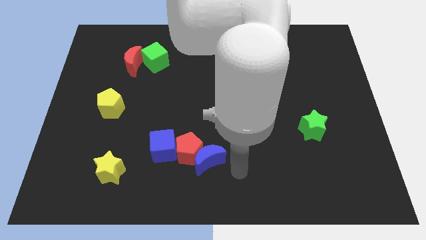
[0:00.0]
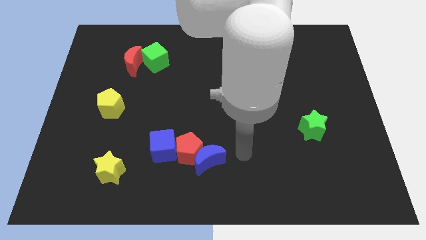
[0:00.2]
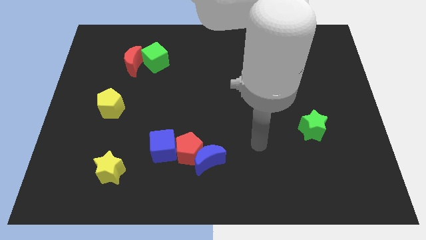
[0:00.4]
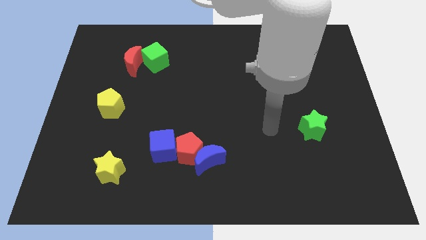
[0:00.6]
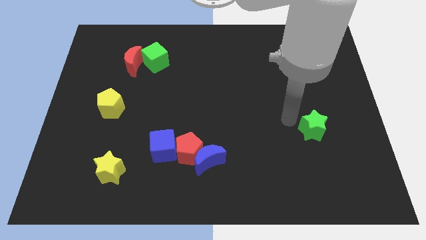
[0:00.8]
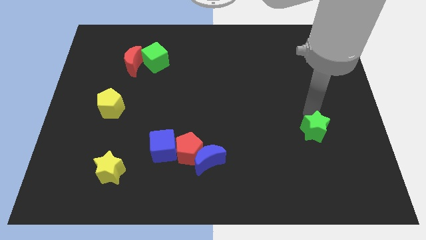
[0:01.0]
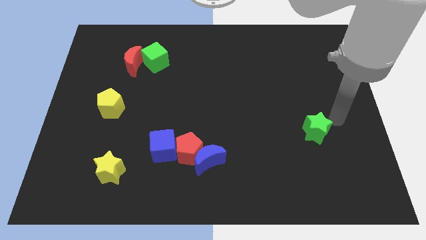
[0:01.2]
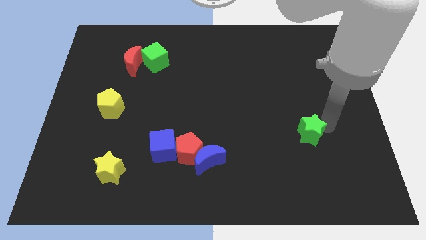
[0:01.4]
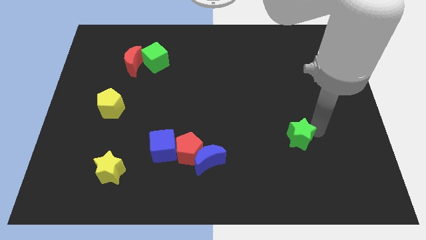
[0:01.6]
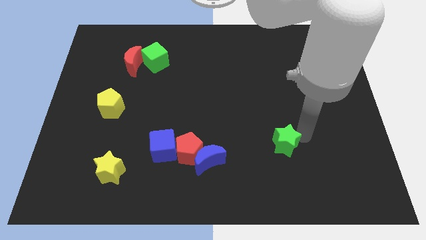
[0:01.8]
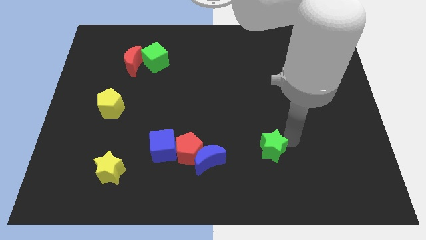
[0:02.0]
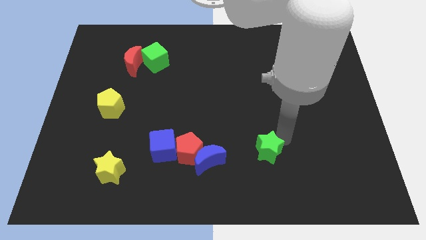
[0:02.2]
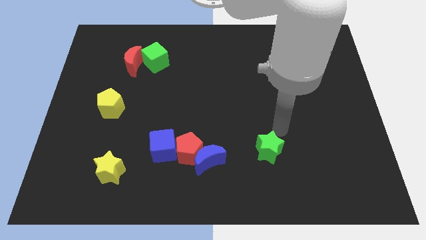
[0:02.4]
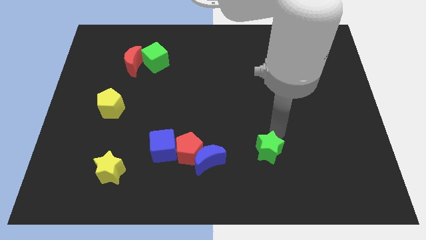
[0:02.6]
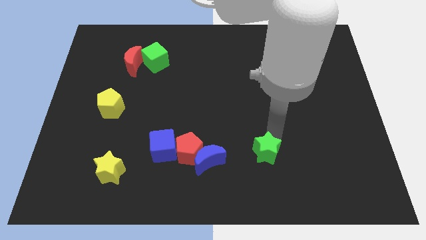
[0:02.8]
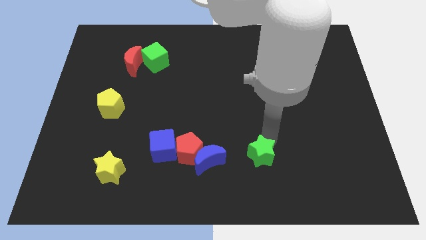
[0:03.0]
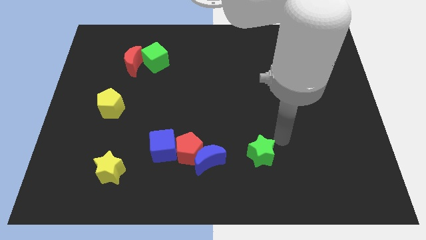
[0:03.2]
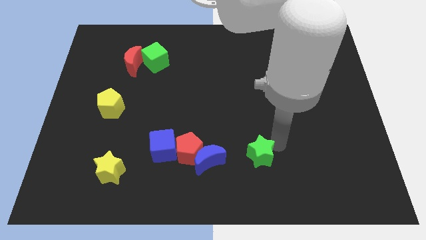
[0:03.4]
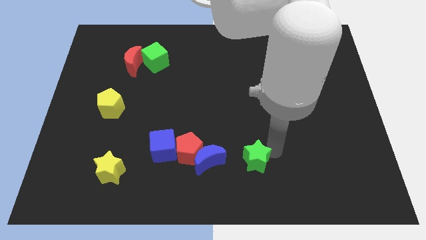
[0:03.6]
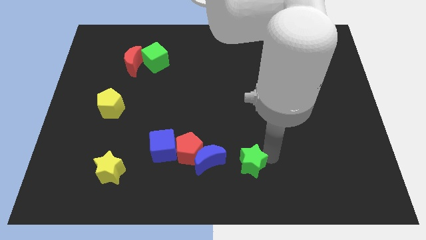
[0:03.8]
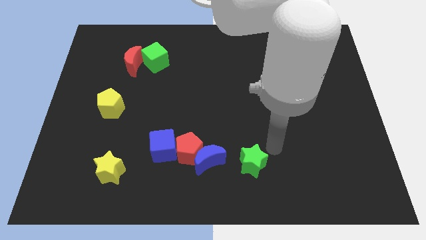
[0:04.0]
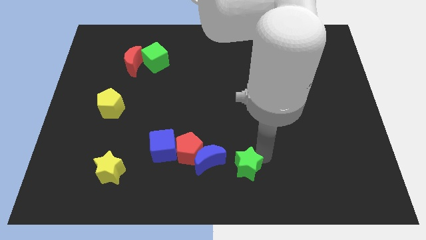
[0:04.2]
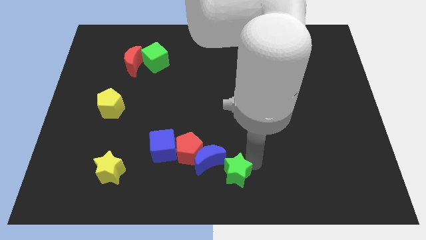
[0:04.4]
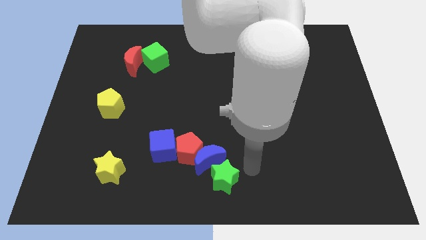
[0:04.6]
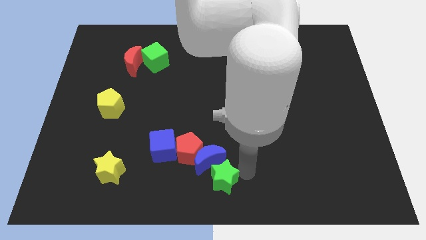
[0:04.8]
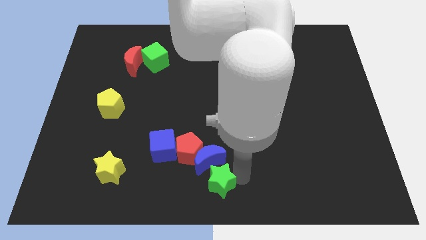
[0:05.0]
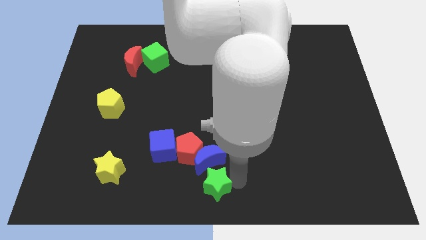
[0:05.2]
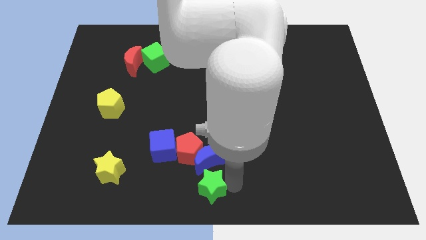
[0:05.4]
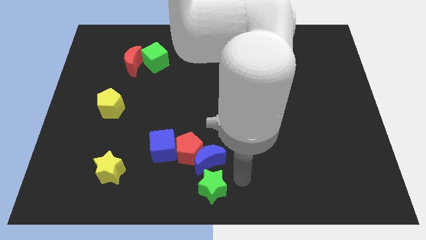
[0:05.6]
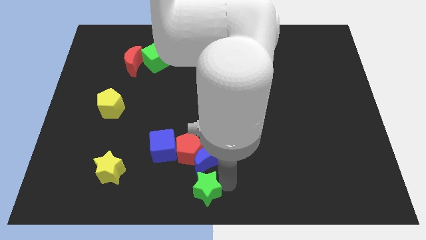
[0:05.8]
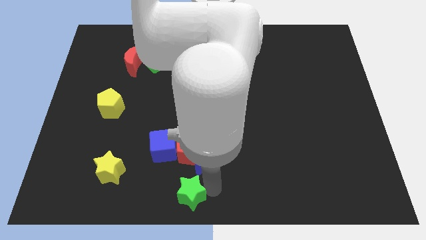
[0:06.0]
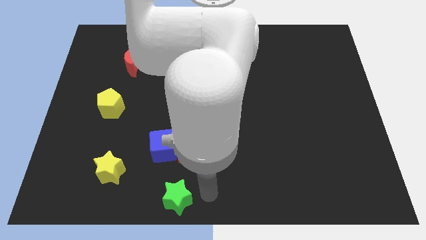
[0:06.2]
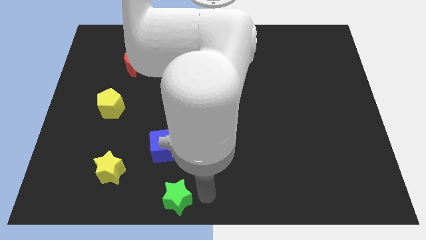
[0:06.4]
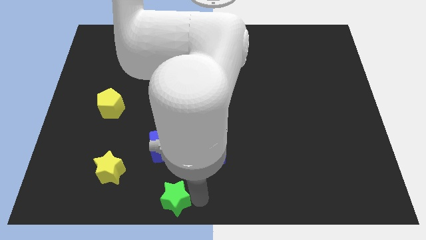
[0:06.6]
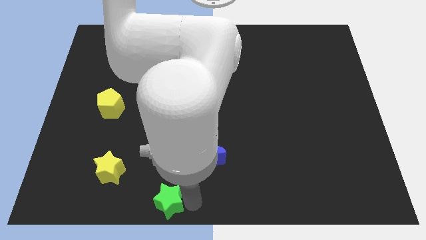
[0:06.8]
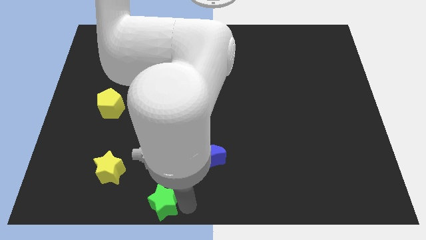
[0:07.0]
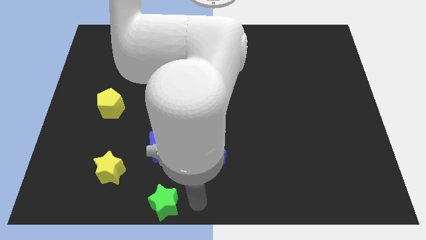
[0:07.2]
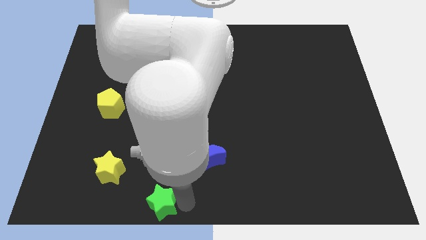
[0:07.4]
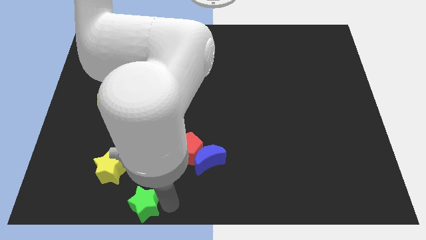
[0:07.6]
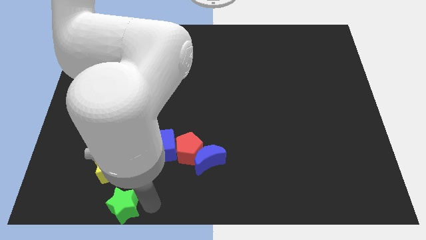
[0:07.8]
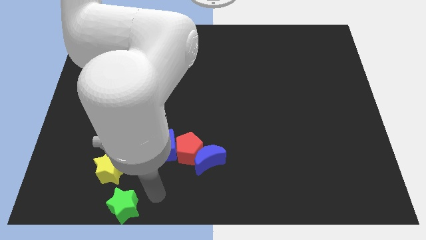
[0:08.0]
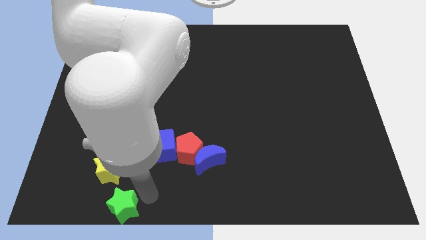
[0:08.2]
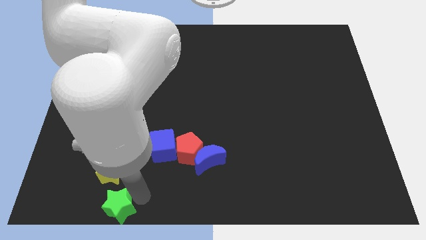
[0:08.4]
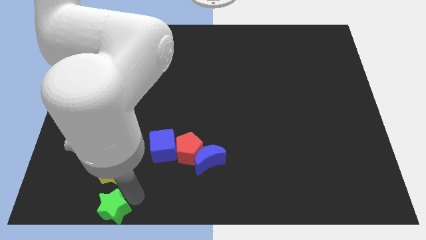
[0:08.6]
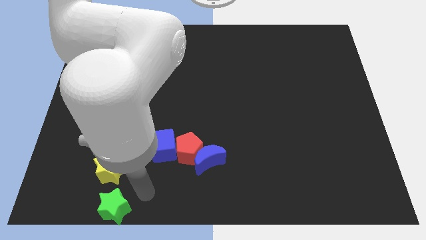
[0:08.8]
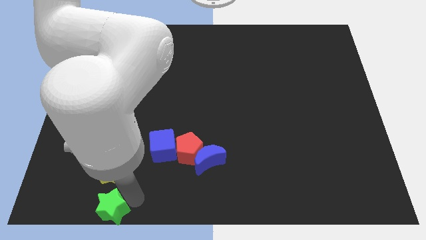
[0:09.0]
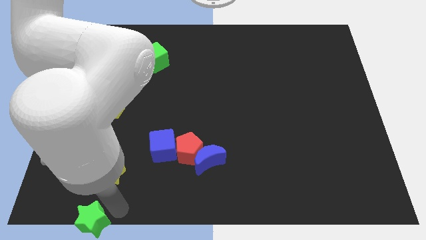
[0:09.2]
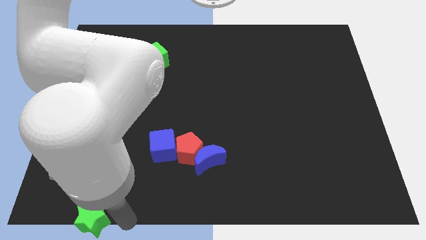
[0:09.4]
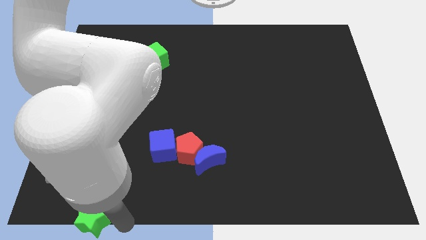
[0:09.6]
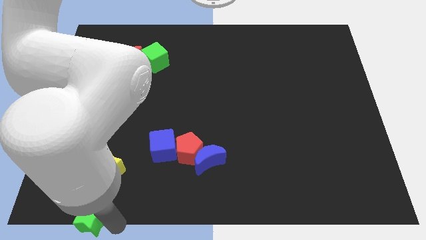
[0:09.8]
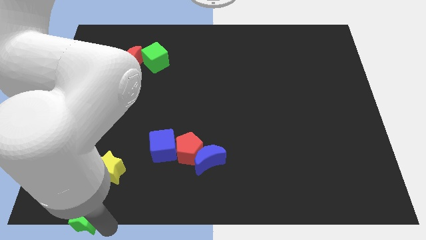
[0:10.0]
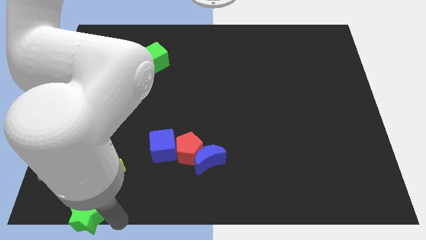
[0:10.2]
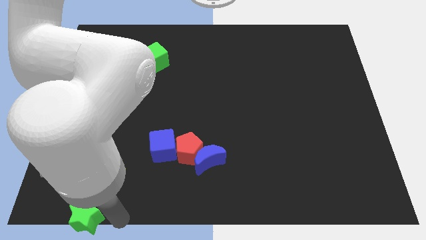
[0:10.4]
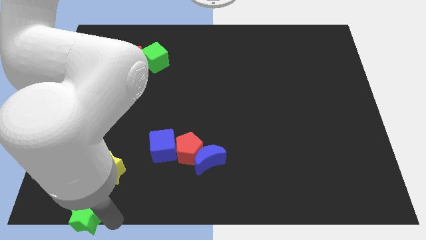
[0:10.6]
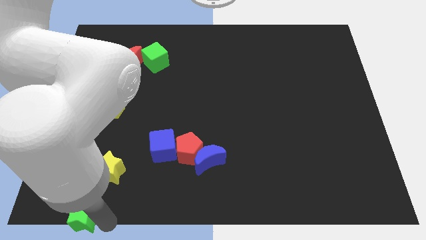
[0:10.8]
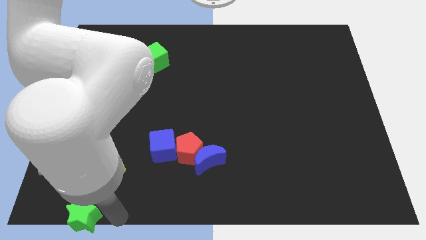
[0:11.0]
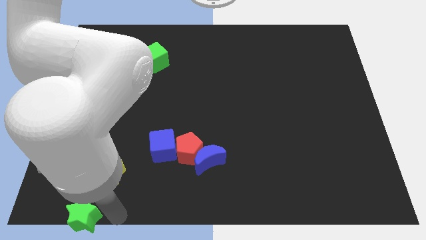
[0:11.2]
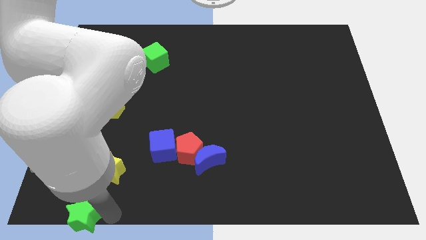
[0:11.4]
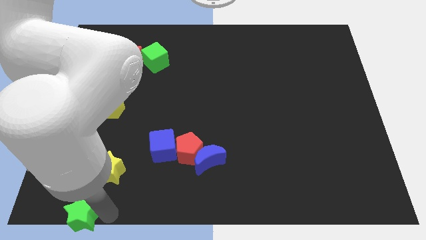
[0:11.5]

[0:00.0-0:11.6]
move the green star to the bottom left of the board

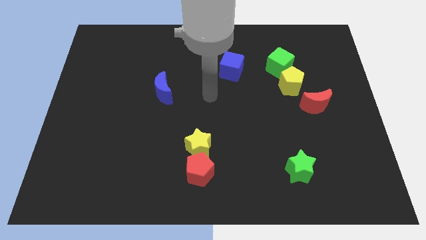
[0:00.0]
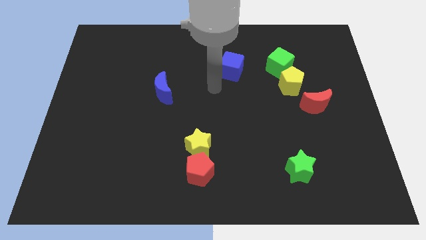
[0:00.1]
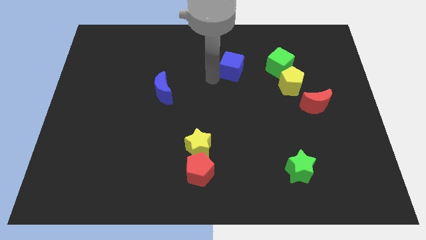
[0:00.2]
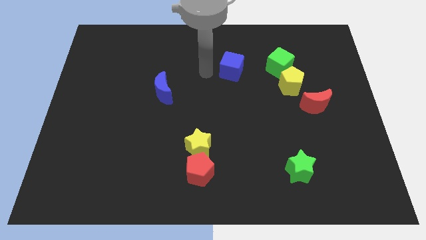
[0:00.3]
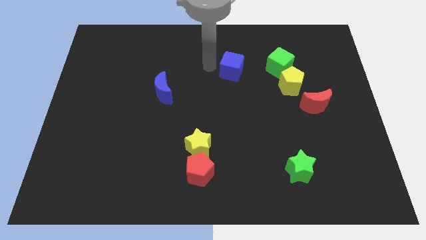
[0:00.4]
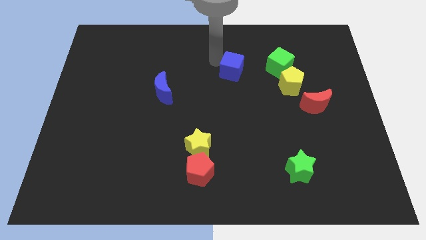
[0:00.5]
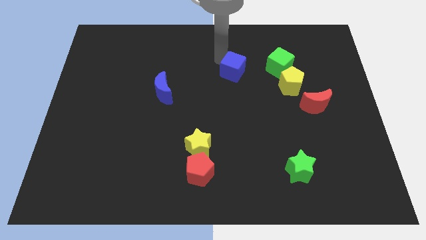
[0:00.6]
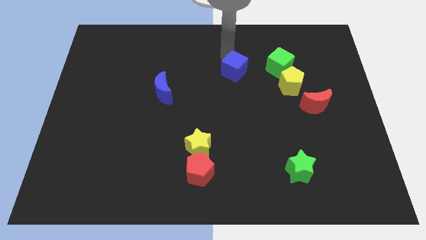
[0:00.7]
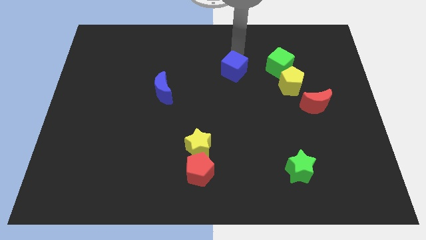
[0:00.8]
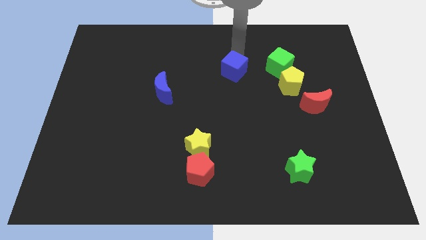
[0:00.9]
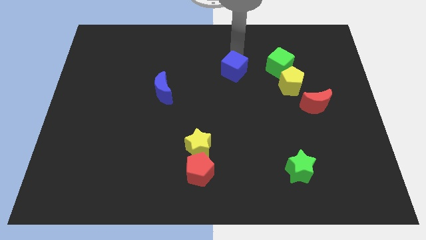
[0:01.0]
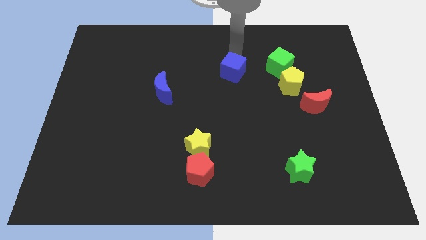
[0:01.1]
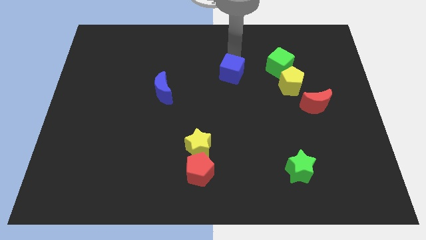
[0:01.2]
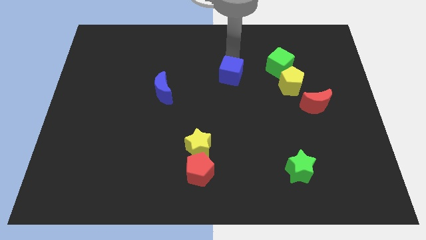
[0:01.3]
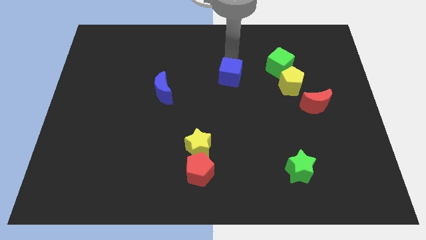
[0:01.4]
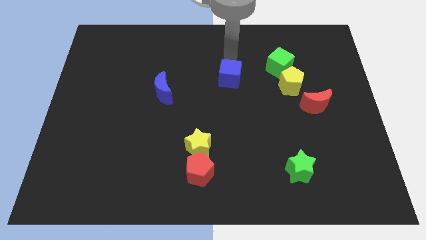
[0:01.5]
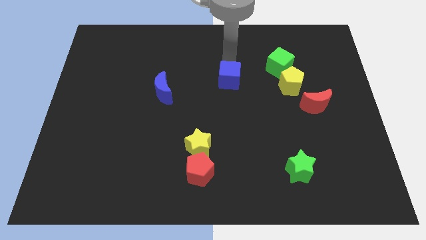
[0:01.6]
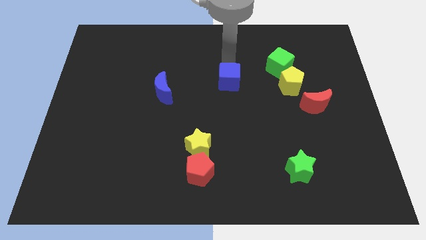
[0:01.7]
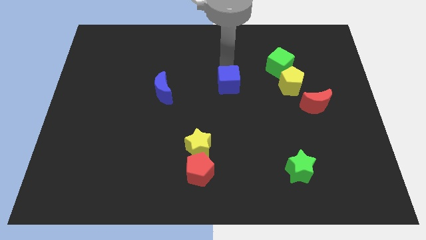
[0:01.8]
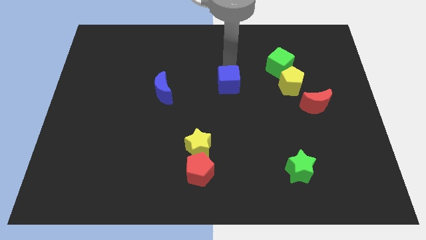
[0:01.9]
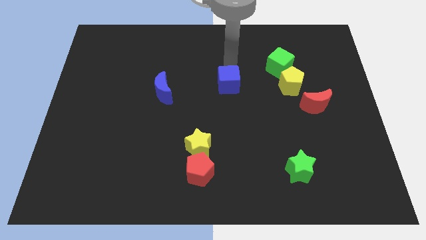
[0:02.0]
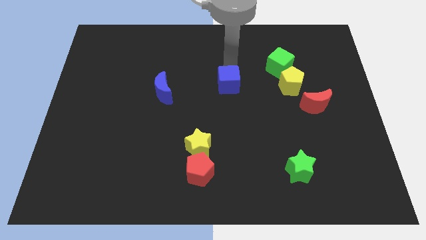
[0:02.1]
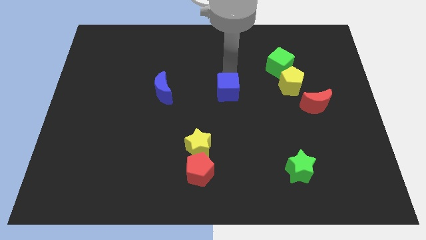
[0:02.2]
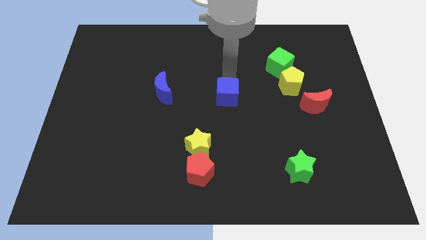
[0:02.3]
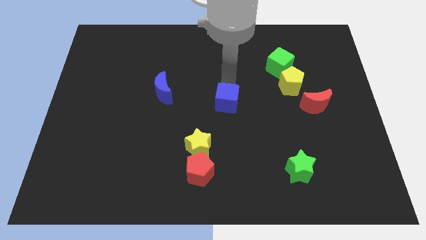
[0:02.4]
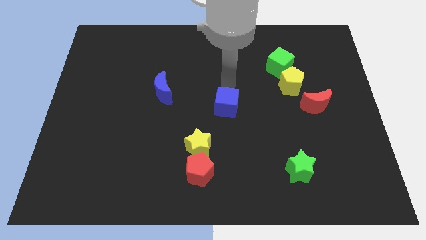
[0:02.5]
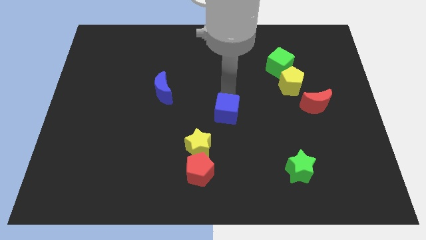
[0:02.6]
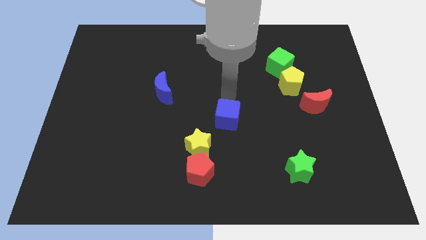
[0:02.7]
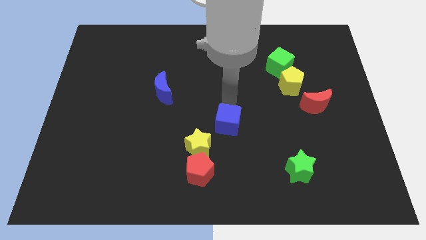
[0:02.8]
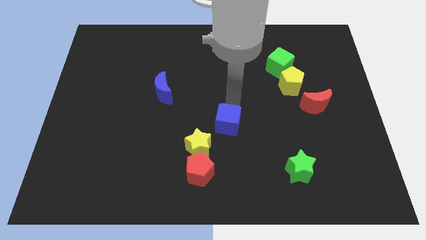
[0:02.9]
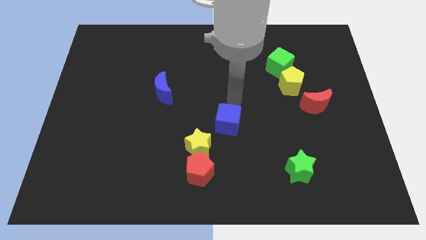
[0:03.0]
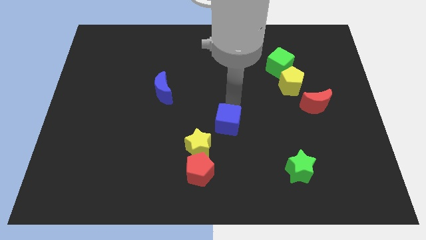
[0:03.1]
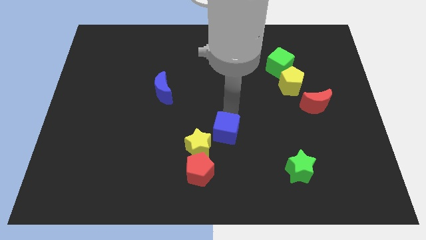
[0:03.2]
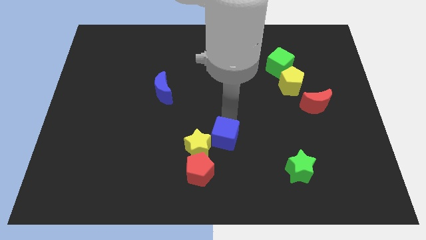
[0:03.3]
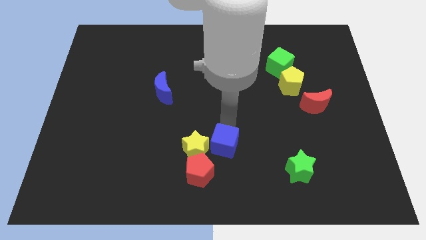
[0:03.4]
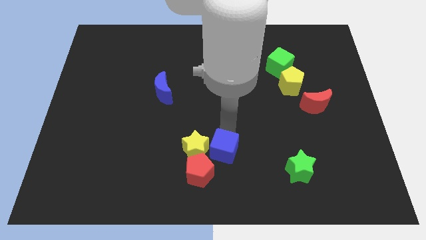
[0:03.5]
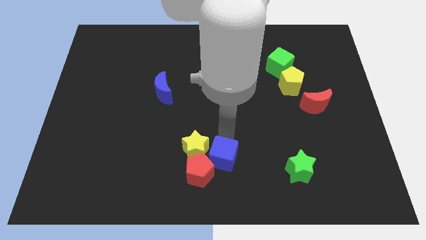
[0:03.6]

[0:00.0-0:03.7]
move the blue cube to the bottom
